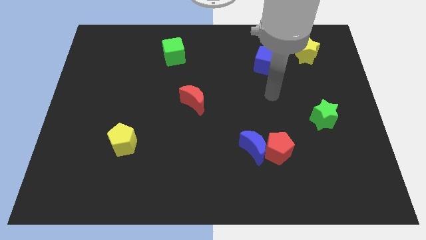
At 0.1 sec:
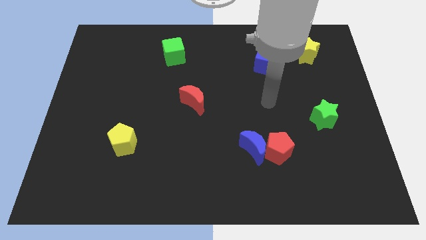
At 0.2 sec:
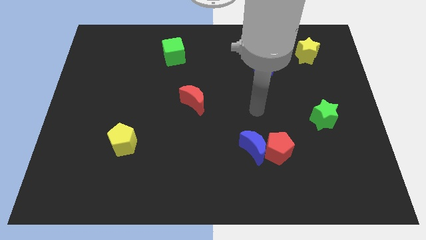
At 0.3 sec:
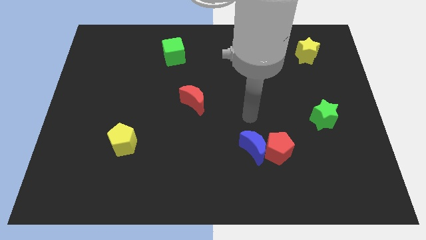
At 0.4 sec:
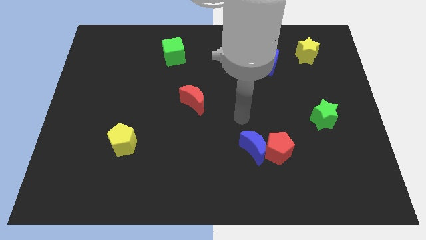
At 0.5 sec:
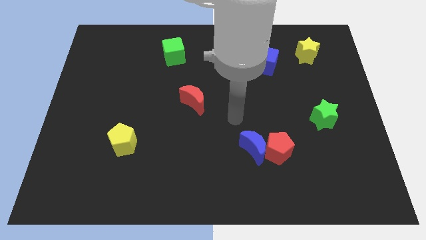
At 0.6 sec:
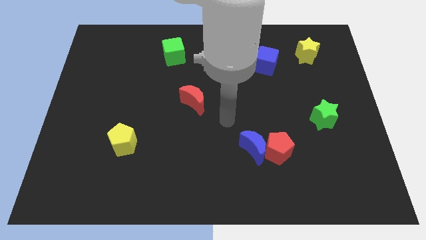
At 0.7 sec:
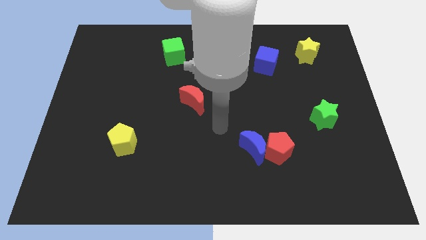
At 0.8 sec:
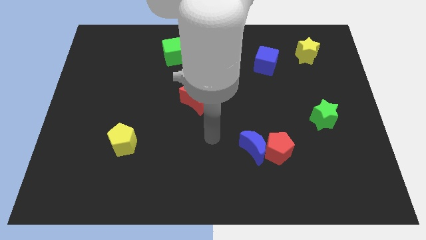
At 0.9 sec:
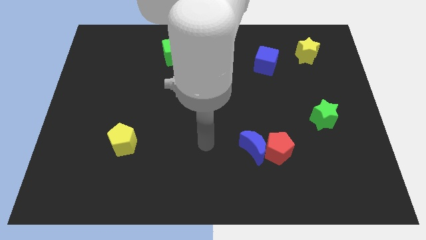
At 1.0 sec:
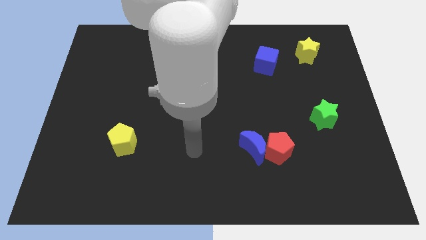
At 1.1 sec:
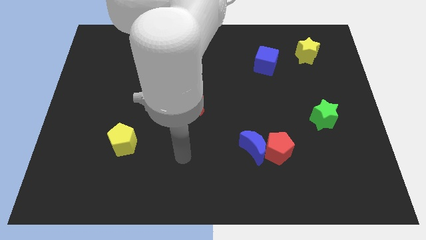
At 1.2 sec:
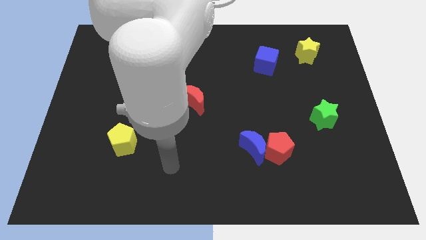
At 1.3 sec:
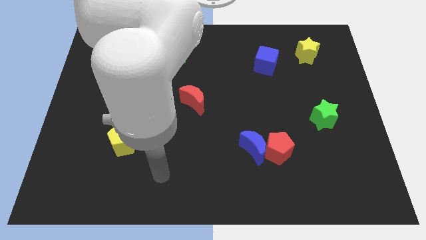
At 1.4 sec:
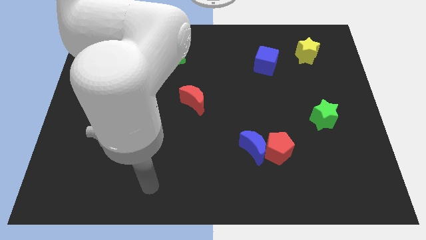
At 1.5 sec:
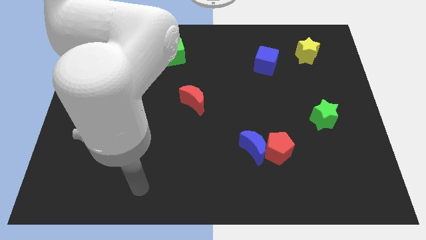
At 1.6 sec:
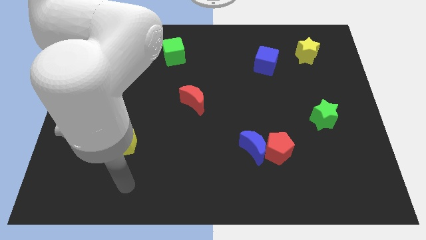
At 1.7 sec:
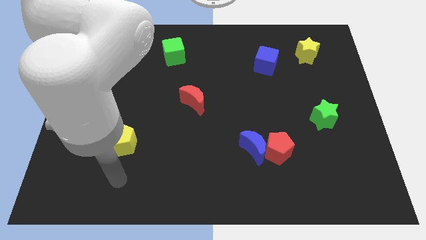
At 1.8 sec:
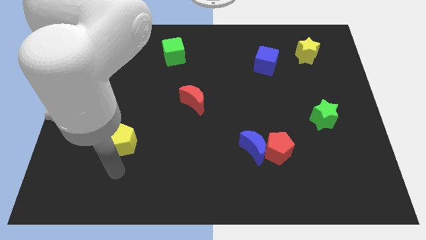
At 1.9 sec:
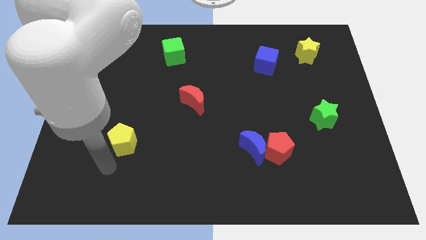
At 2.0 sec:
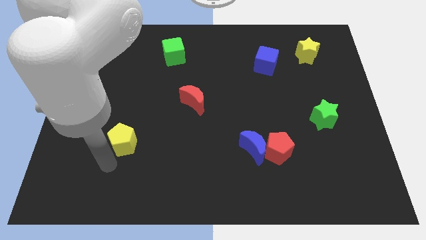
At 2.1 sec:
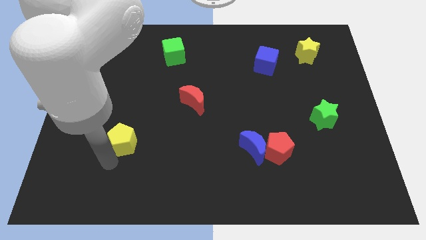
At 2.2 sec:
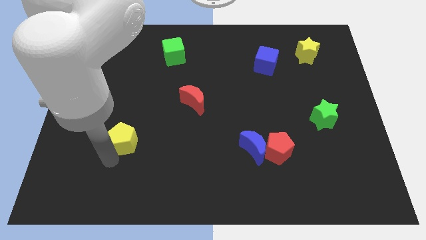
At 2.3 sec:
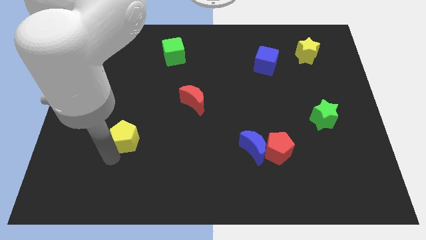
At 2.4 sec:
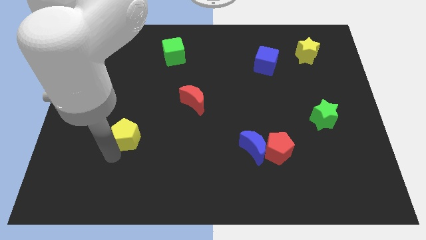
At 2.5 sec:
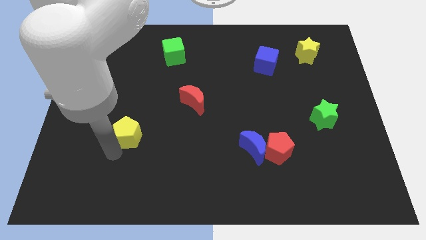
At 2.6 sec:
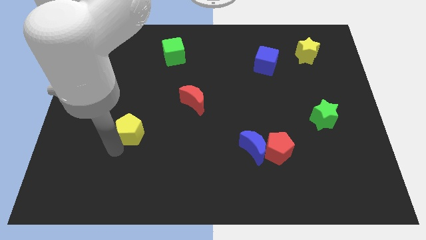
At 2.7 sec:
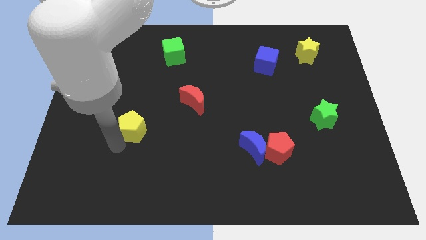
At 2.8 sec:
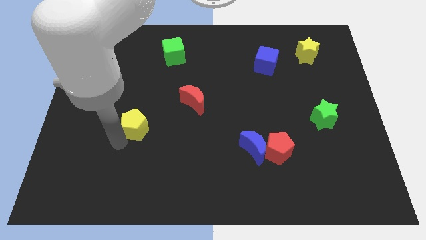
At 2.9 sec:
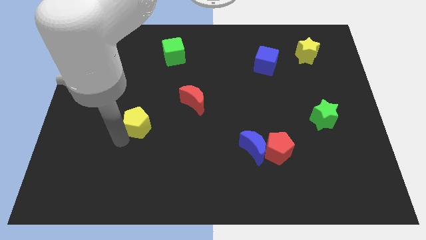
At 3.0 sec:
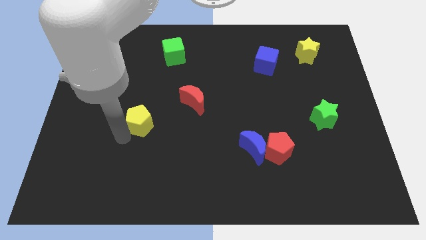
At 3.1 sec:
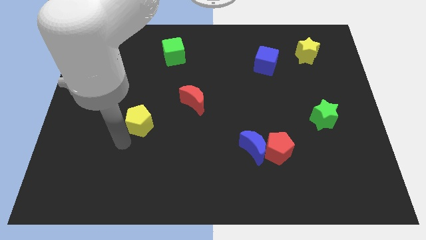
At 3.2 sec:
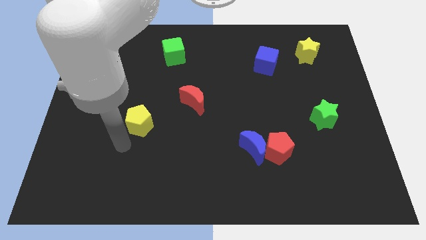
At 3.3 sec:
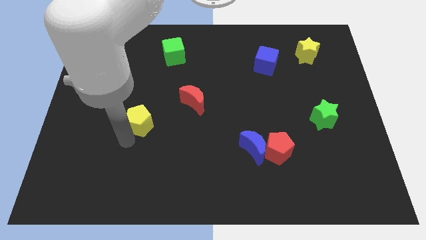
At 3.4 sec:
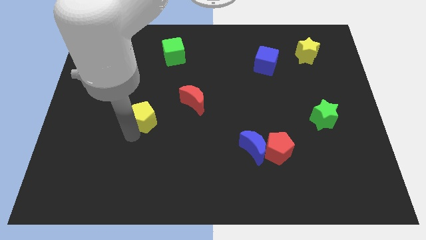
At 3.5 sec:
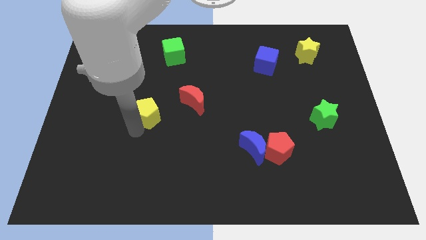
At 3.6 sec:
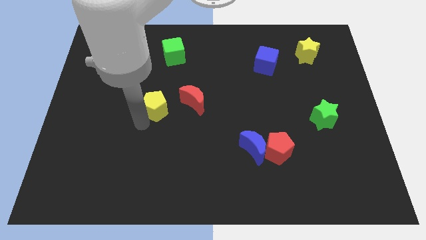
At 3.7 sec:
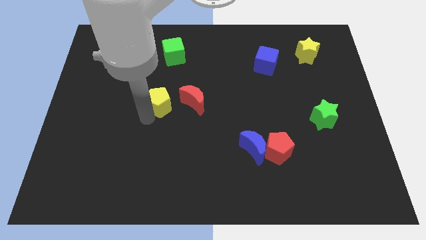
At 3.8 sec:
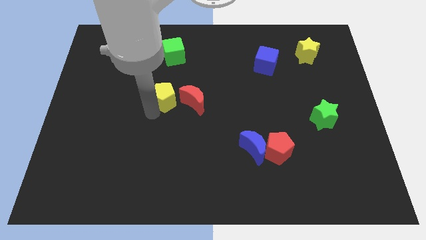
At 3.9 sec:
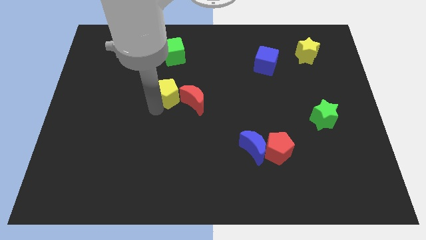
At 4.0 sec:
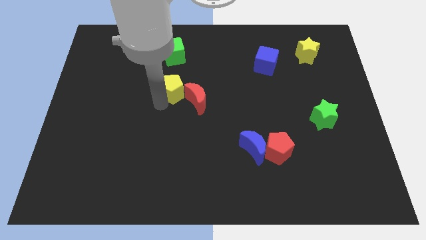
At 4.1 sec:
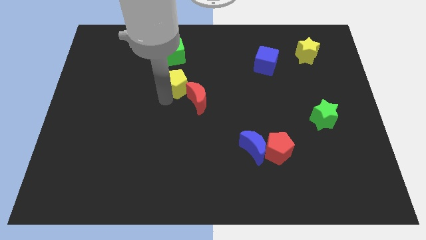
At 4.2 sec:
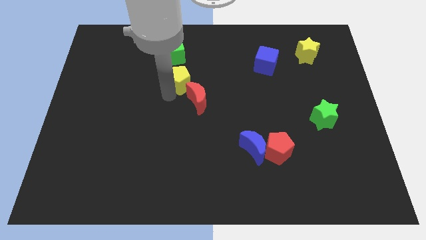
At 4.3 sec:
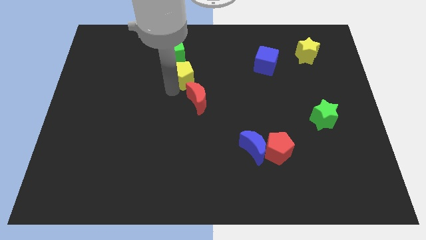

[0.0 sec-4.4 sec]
push the yellow pentagon upwards and then right

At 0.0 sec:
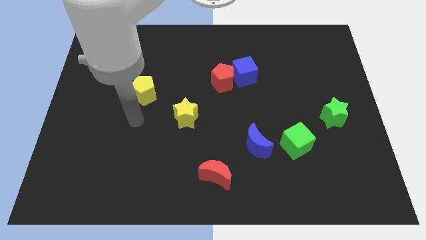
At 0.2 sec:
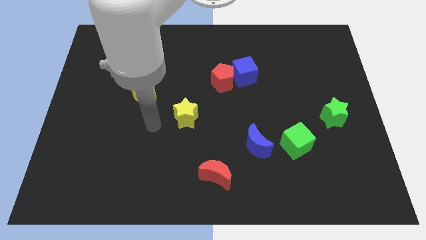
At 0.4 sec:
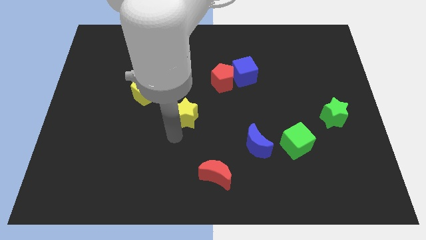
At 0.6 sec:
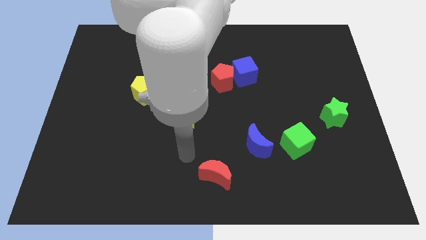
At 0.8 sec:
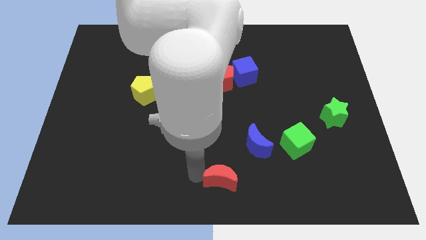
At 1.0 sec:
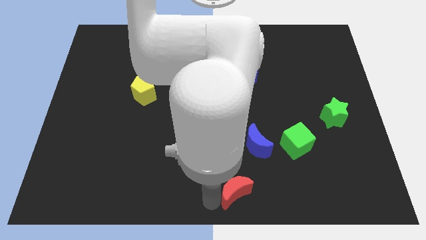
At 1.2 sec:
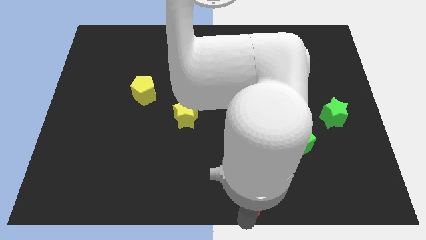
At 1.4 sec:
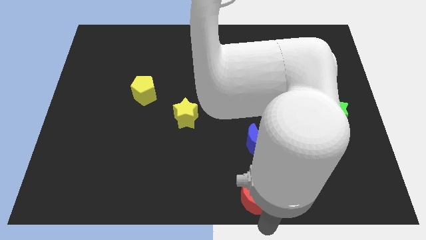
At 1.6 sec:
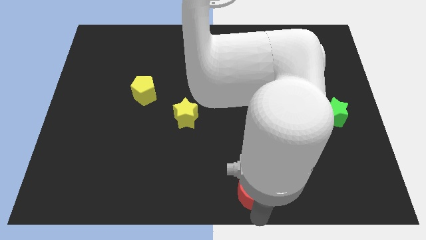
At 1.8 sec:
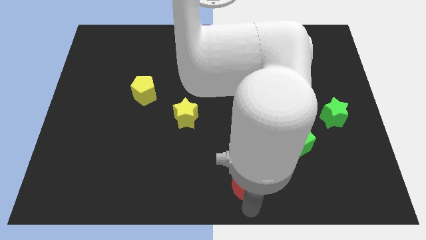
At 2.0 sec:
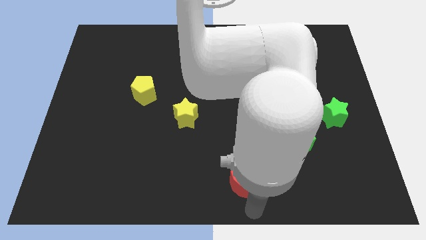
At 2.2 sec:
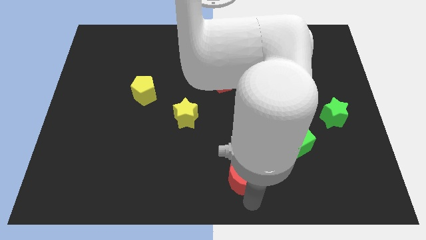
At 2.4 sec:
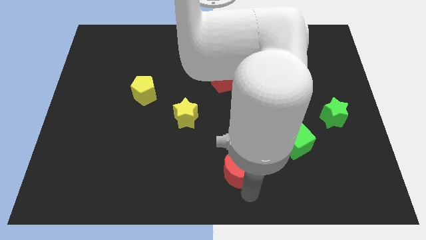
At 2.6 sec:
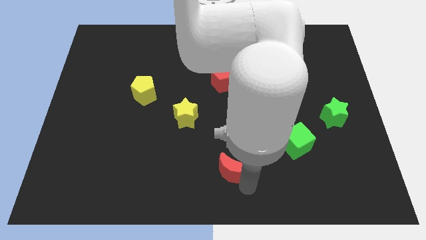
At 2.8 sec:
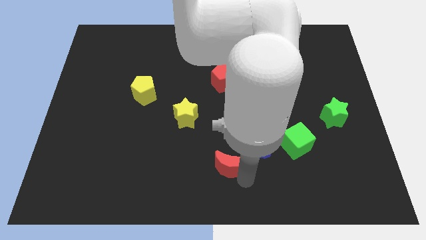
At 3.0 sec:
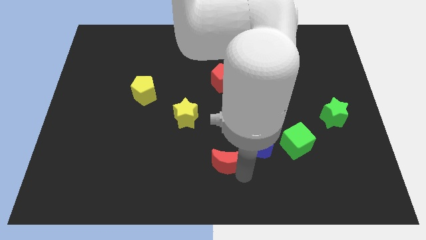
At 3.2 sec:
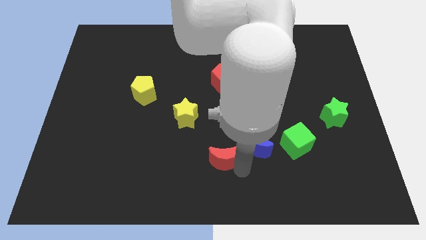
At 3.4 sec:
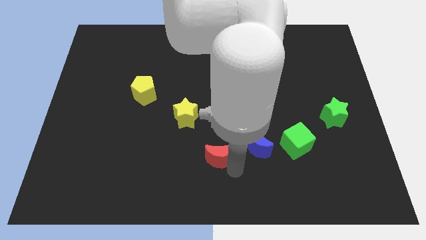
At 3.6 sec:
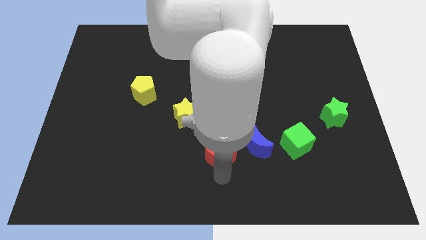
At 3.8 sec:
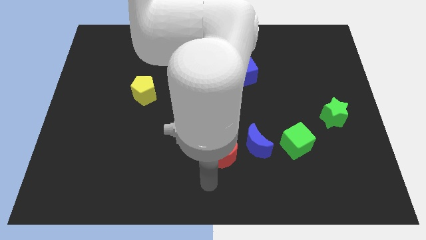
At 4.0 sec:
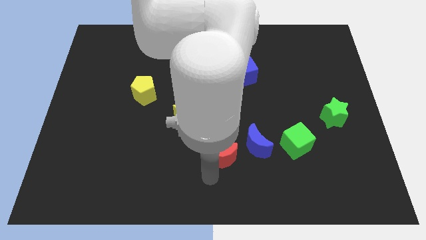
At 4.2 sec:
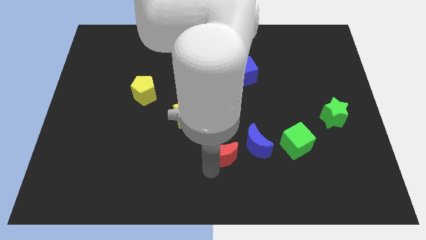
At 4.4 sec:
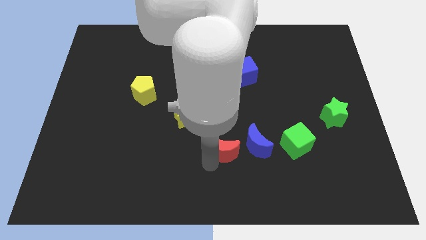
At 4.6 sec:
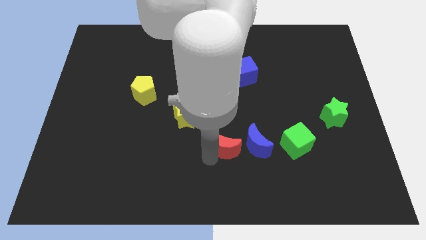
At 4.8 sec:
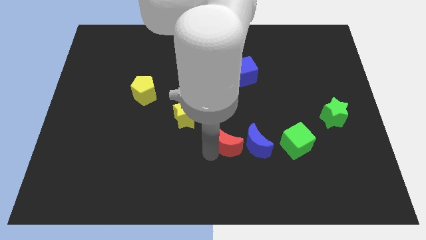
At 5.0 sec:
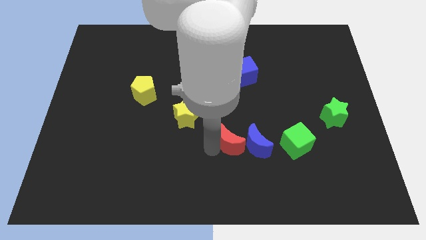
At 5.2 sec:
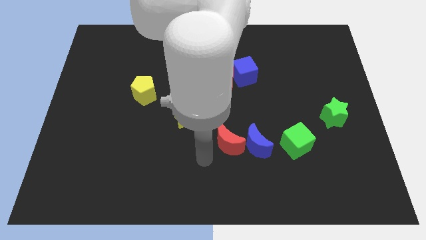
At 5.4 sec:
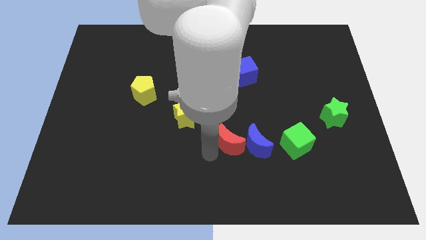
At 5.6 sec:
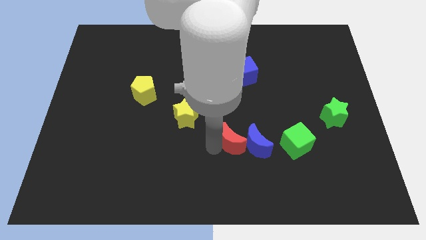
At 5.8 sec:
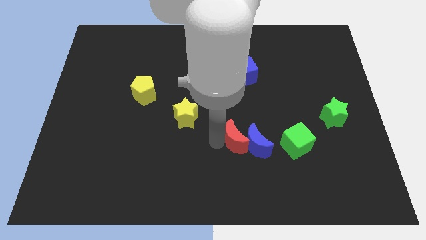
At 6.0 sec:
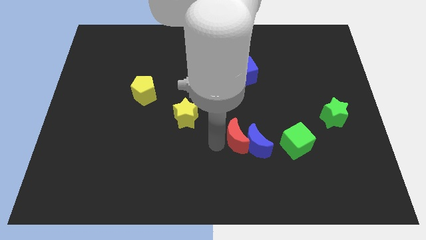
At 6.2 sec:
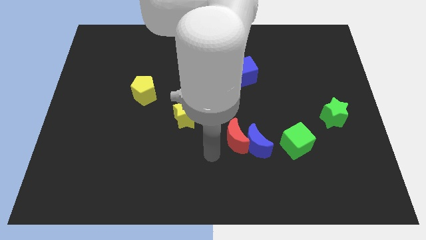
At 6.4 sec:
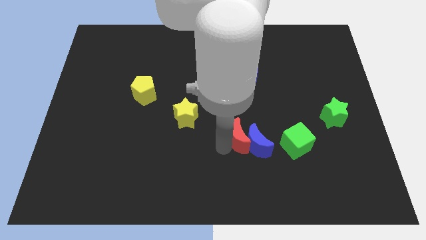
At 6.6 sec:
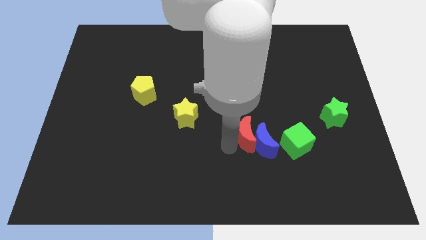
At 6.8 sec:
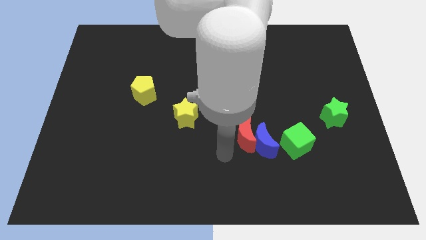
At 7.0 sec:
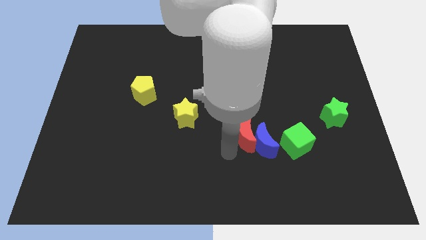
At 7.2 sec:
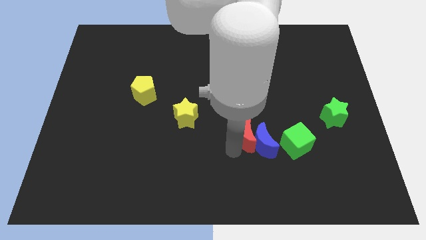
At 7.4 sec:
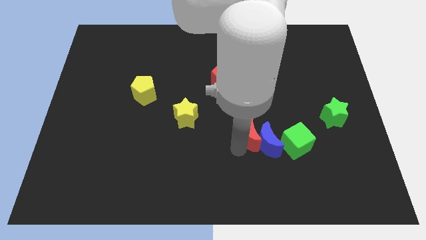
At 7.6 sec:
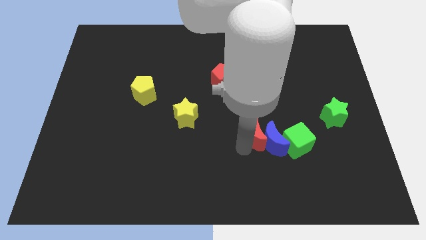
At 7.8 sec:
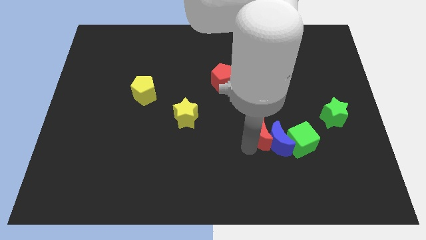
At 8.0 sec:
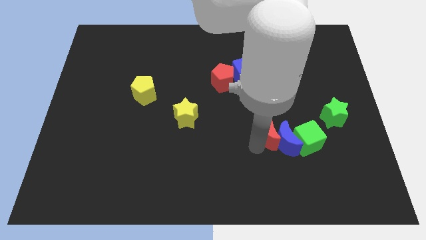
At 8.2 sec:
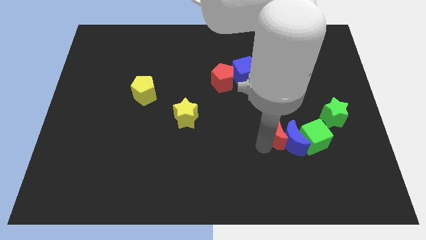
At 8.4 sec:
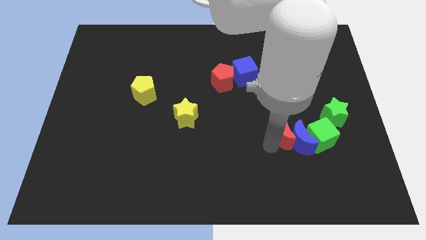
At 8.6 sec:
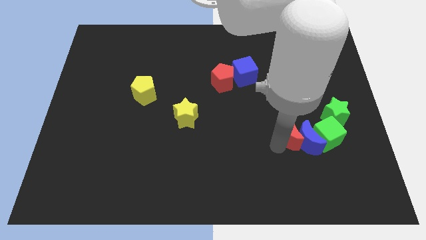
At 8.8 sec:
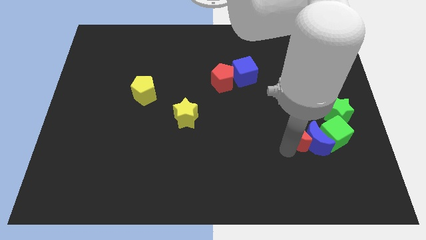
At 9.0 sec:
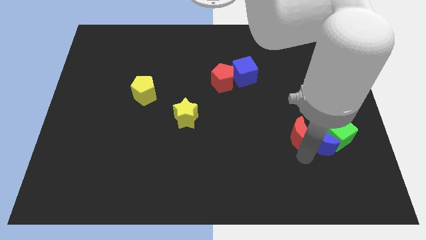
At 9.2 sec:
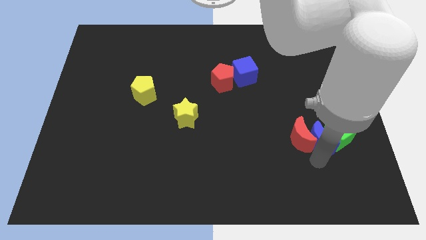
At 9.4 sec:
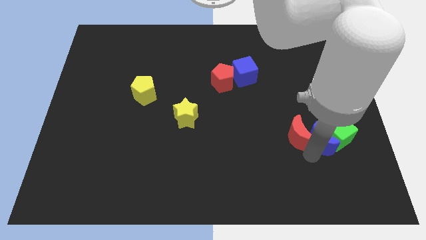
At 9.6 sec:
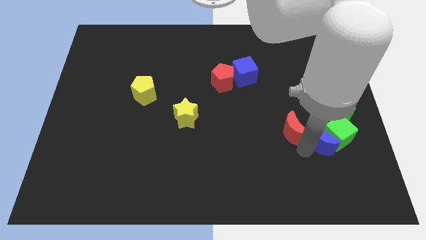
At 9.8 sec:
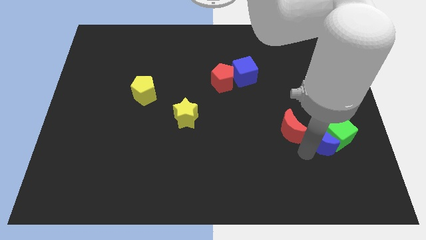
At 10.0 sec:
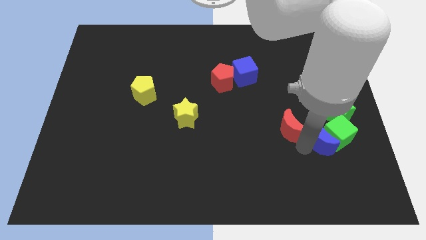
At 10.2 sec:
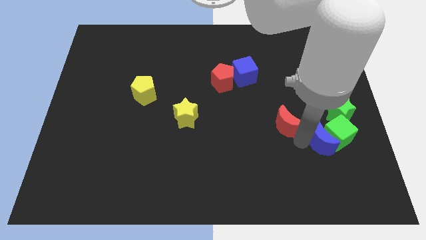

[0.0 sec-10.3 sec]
push the red moon up and then right
